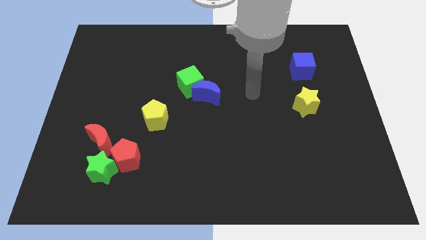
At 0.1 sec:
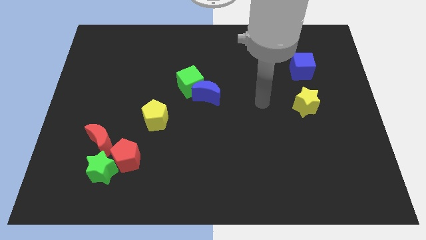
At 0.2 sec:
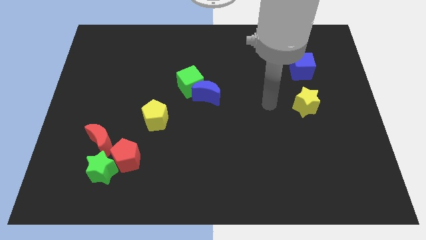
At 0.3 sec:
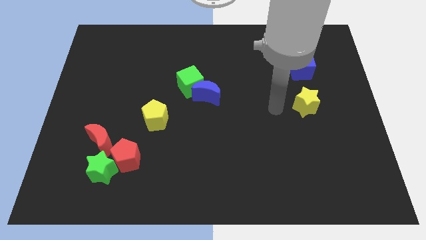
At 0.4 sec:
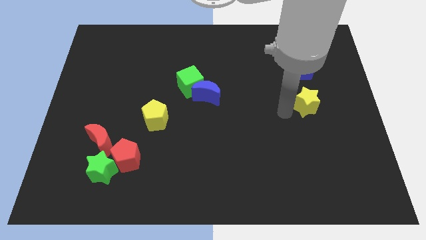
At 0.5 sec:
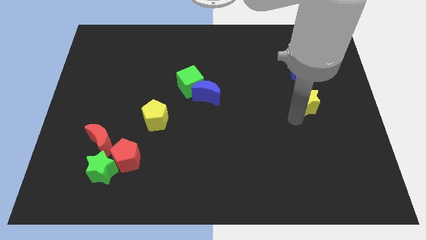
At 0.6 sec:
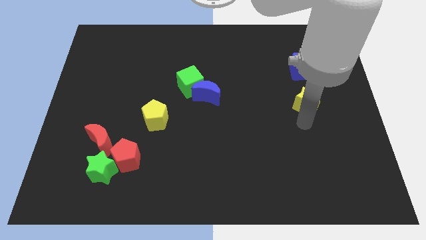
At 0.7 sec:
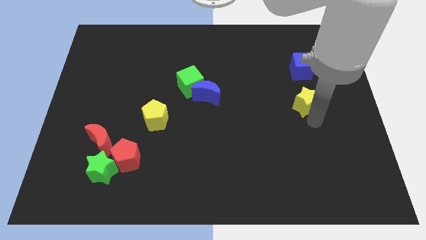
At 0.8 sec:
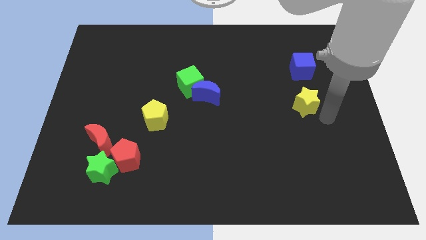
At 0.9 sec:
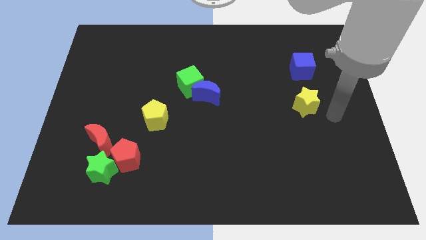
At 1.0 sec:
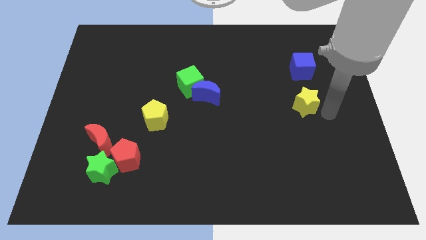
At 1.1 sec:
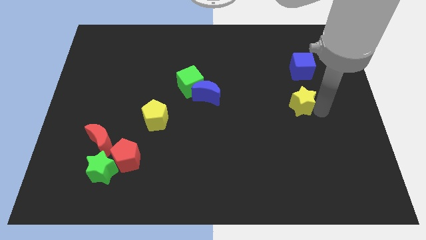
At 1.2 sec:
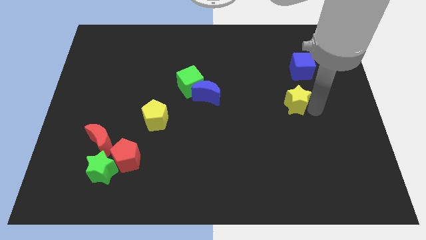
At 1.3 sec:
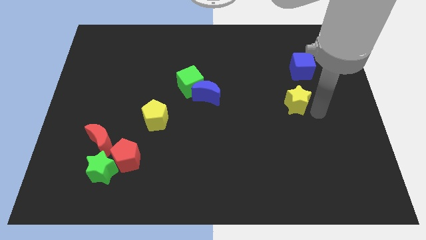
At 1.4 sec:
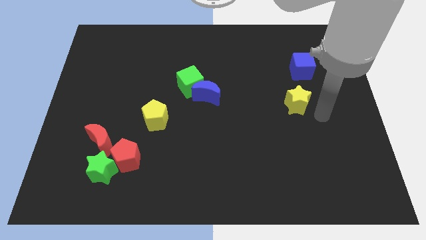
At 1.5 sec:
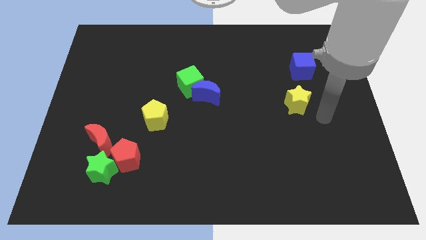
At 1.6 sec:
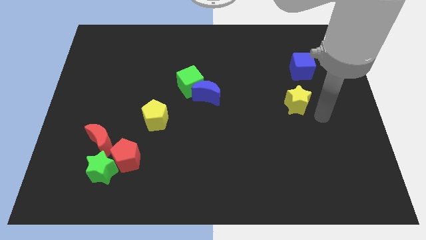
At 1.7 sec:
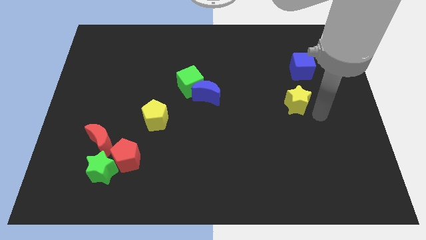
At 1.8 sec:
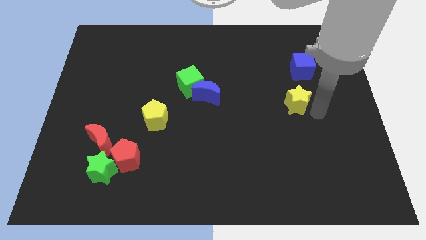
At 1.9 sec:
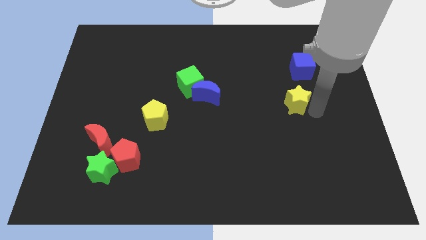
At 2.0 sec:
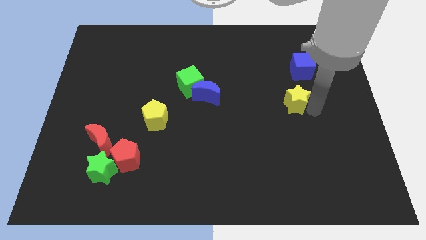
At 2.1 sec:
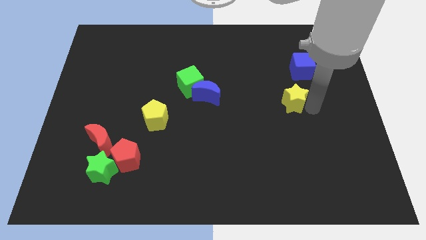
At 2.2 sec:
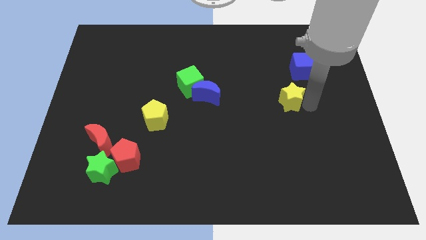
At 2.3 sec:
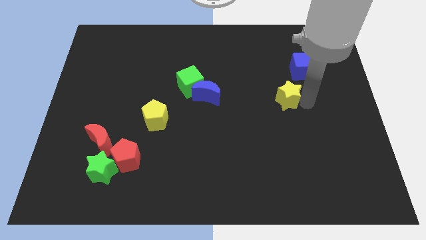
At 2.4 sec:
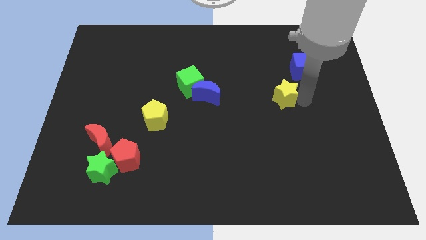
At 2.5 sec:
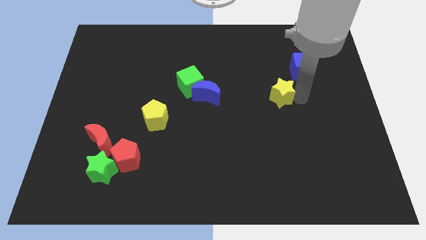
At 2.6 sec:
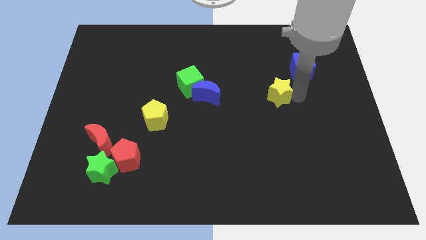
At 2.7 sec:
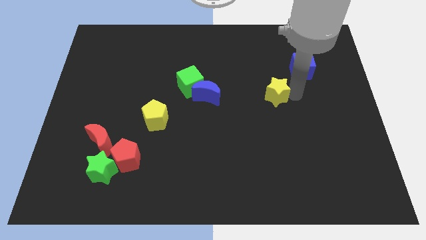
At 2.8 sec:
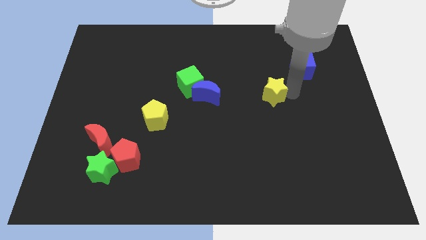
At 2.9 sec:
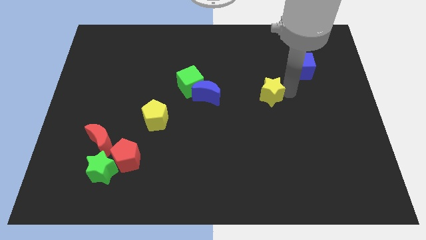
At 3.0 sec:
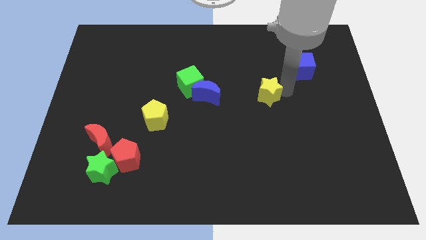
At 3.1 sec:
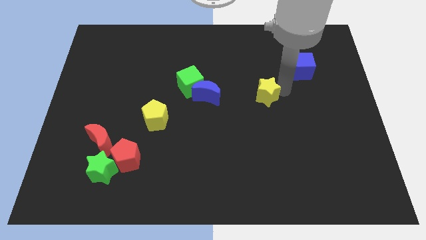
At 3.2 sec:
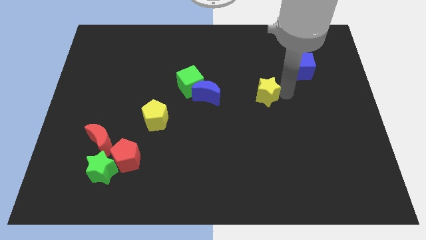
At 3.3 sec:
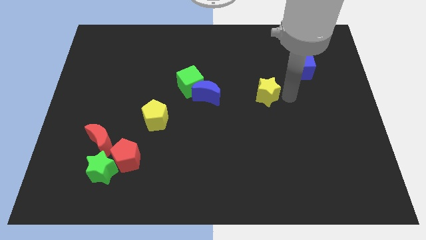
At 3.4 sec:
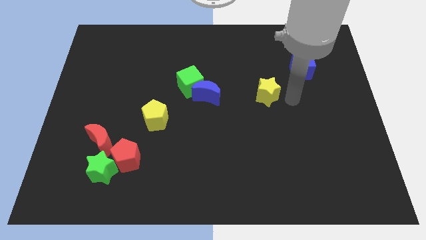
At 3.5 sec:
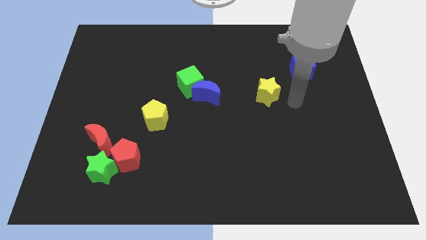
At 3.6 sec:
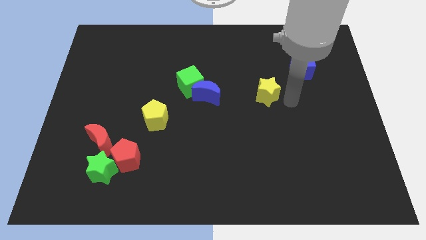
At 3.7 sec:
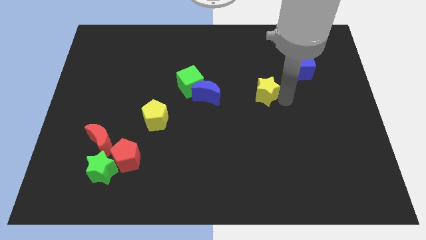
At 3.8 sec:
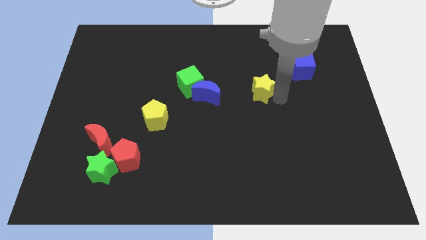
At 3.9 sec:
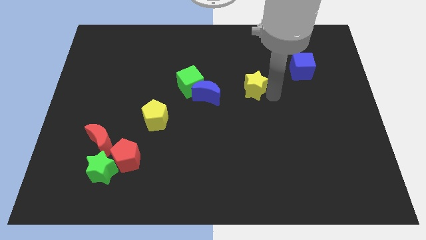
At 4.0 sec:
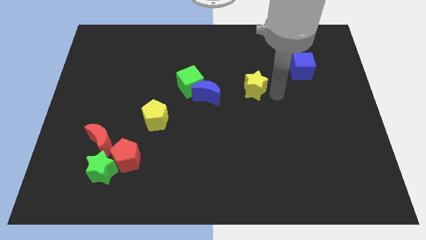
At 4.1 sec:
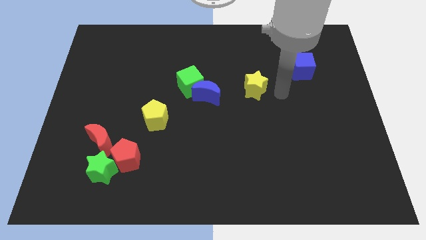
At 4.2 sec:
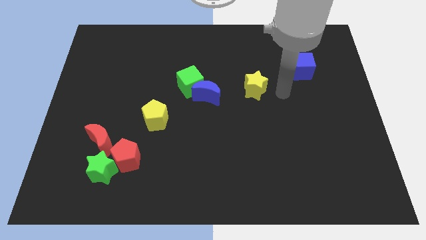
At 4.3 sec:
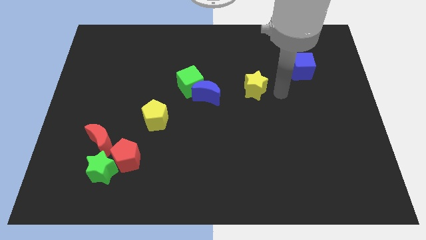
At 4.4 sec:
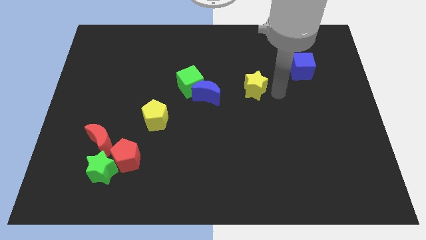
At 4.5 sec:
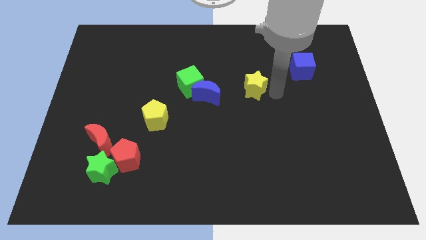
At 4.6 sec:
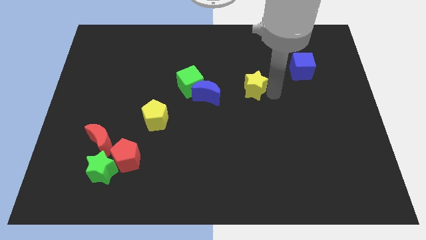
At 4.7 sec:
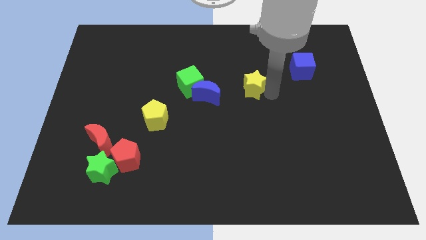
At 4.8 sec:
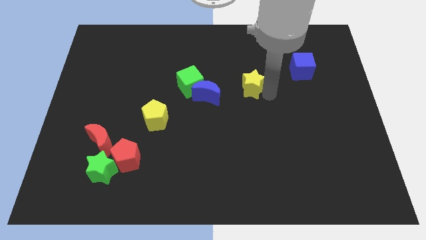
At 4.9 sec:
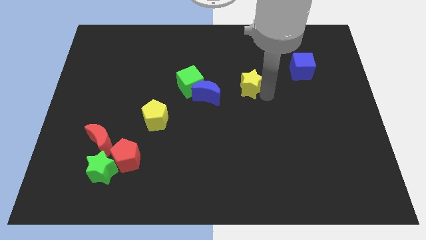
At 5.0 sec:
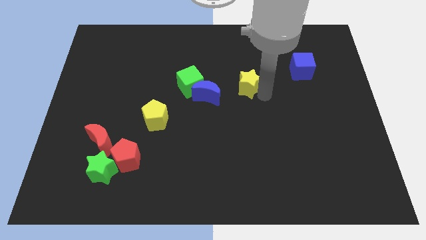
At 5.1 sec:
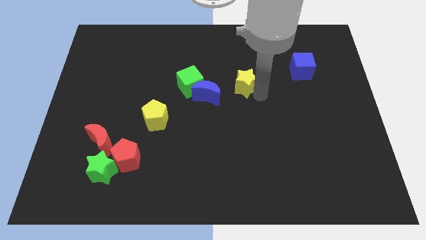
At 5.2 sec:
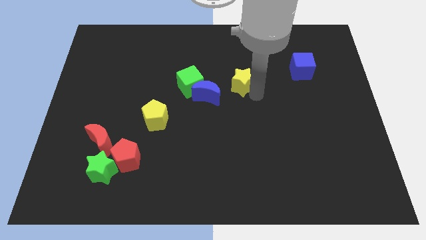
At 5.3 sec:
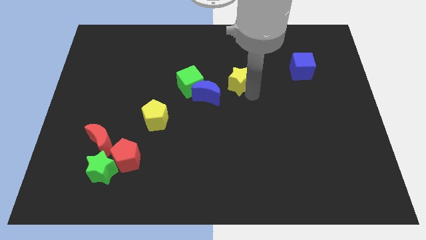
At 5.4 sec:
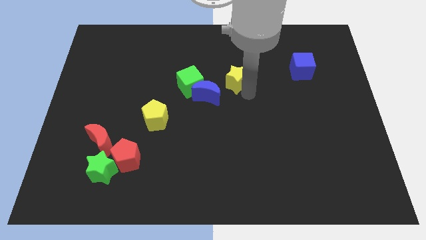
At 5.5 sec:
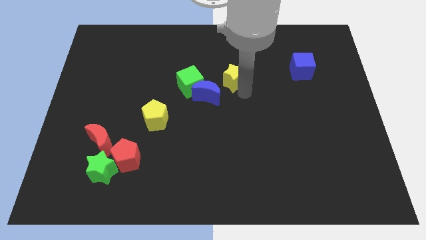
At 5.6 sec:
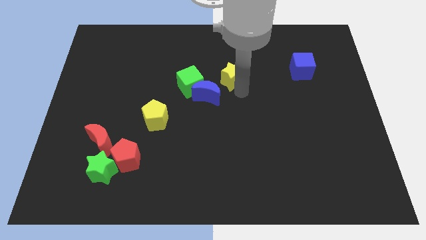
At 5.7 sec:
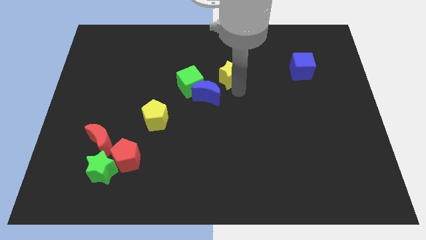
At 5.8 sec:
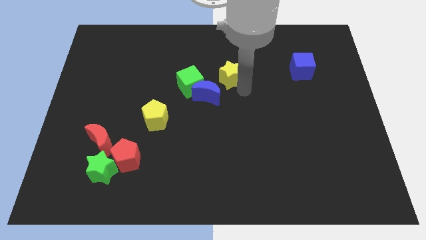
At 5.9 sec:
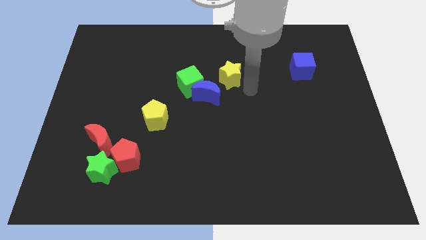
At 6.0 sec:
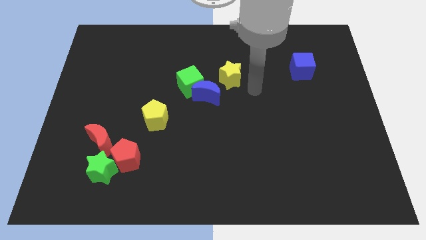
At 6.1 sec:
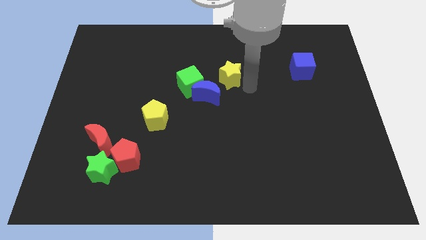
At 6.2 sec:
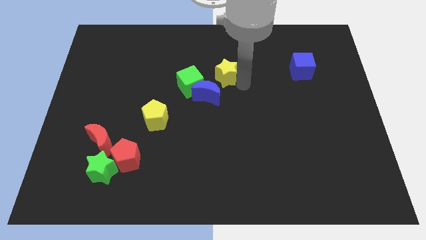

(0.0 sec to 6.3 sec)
slide the yellow star to the top right of the green cube

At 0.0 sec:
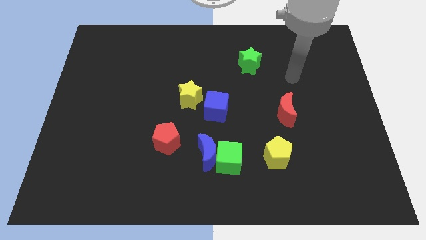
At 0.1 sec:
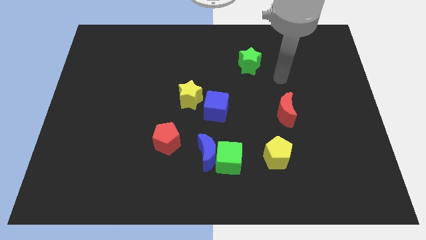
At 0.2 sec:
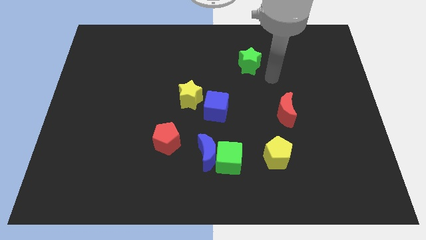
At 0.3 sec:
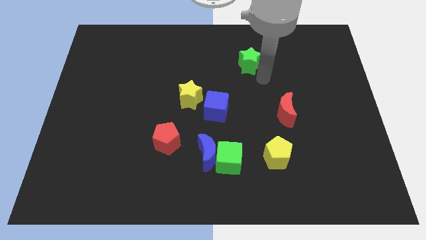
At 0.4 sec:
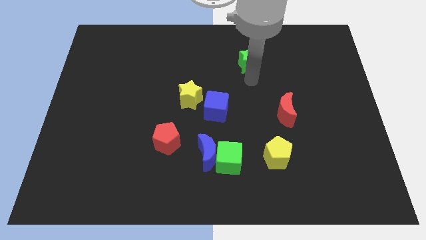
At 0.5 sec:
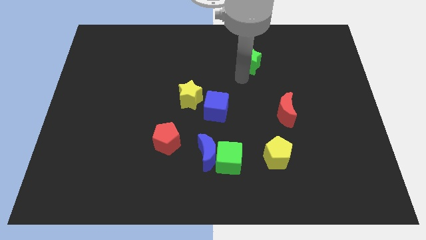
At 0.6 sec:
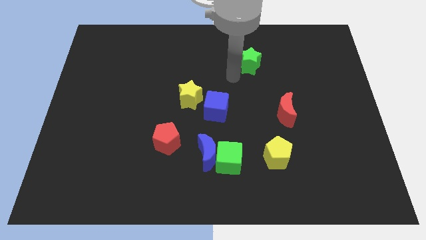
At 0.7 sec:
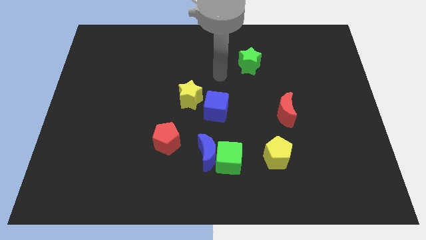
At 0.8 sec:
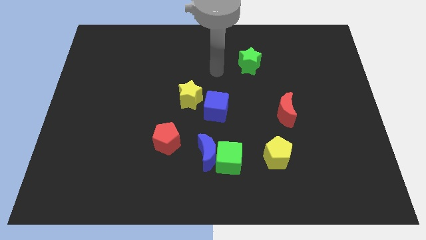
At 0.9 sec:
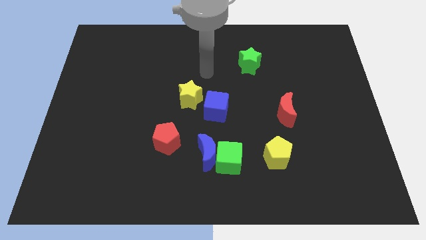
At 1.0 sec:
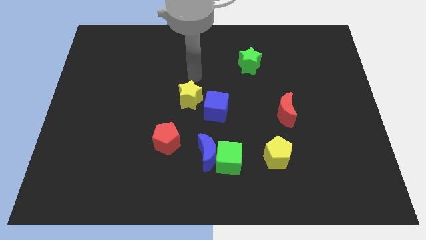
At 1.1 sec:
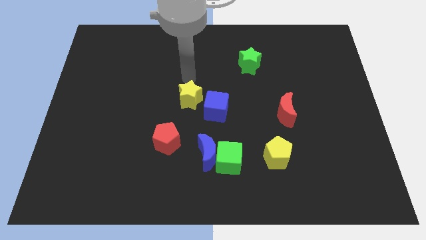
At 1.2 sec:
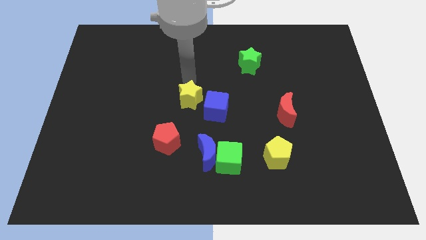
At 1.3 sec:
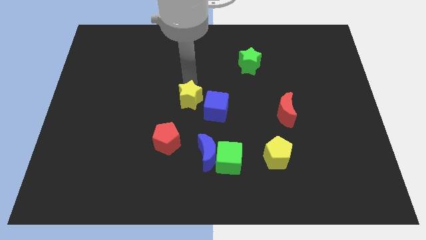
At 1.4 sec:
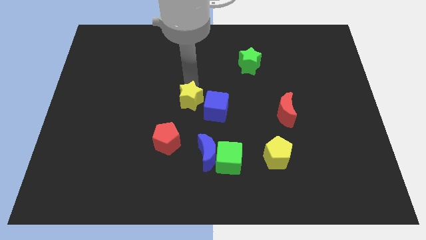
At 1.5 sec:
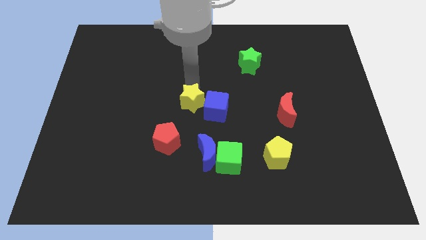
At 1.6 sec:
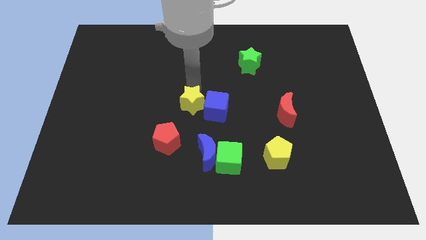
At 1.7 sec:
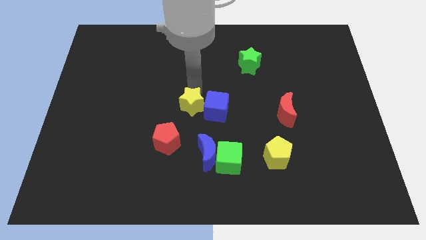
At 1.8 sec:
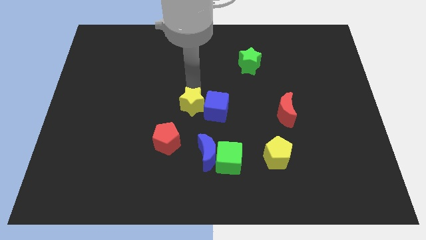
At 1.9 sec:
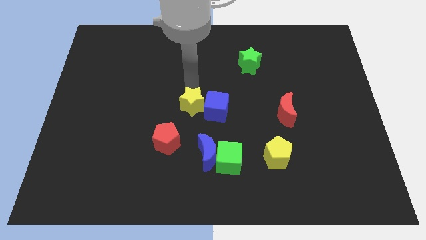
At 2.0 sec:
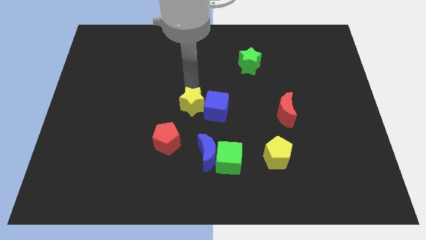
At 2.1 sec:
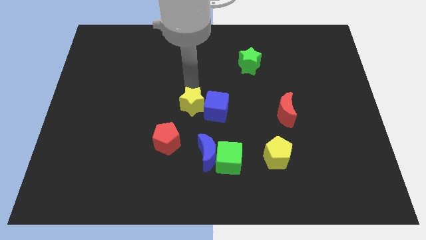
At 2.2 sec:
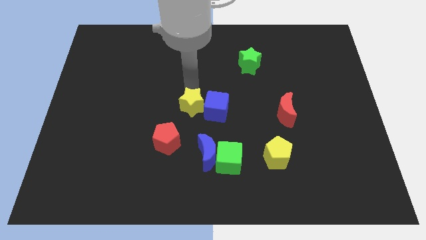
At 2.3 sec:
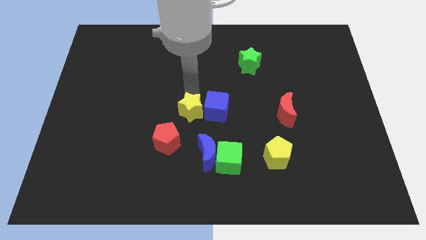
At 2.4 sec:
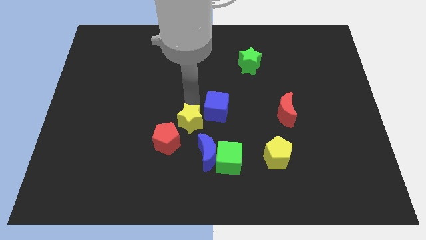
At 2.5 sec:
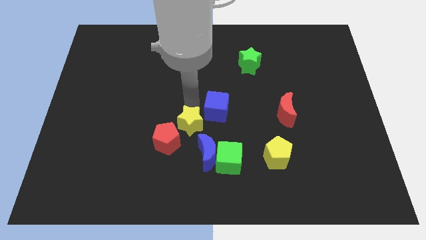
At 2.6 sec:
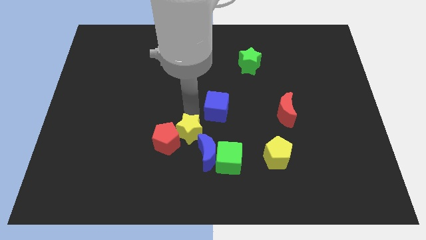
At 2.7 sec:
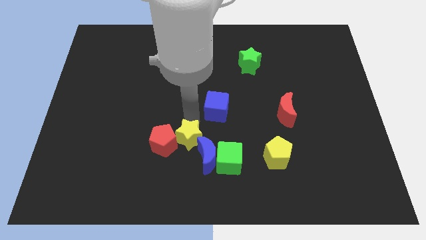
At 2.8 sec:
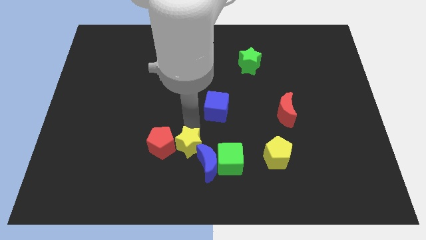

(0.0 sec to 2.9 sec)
push the yellow star to the left of the green cube
